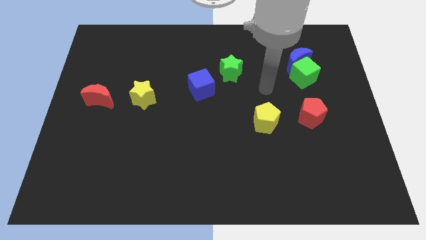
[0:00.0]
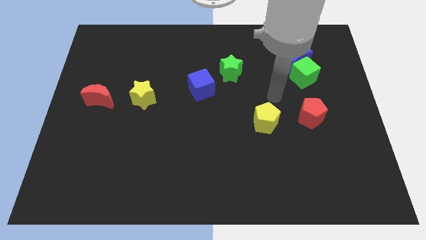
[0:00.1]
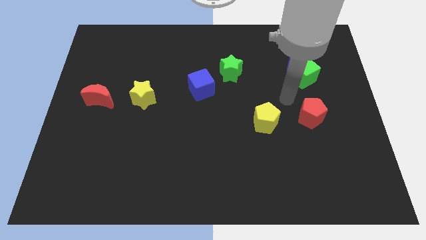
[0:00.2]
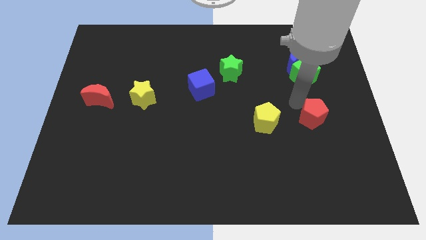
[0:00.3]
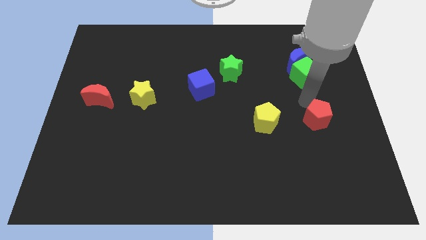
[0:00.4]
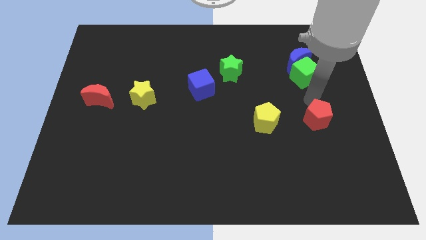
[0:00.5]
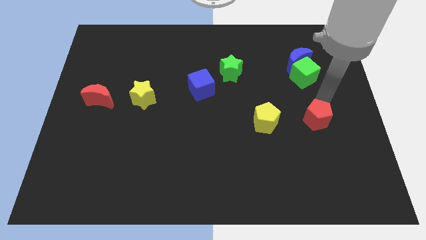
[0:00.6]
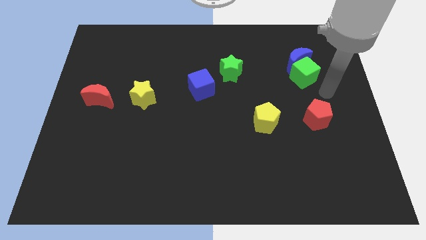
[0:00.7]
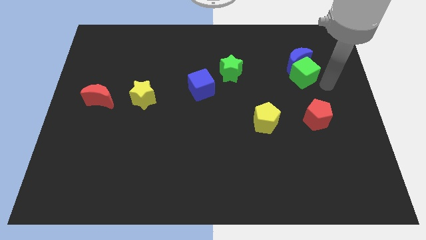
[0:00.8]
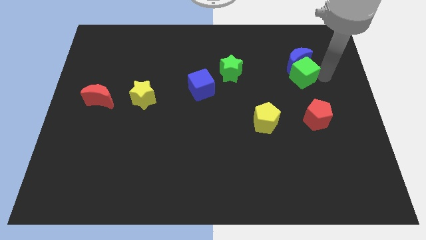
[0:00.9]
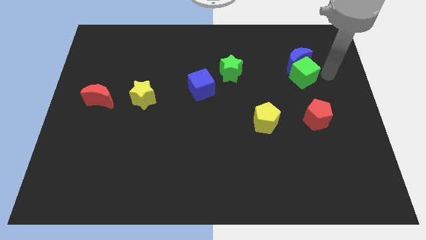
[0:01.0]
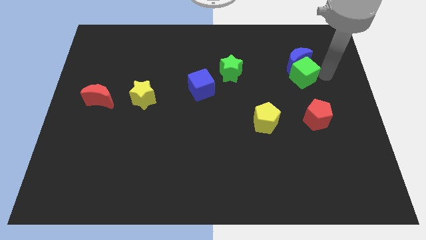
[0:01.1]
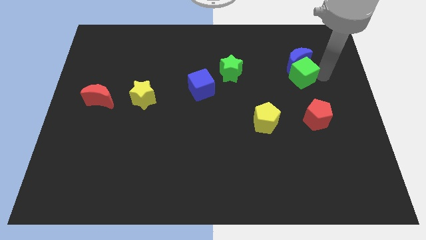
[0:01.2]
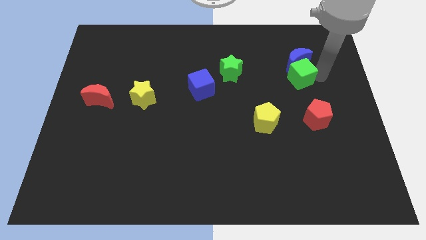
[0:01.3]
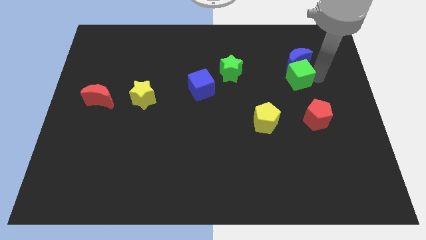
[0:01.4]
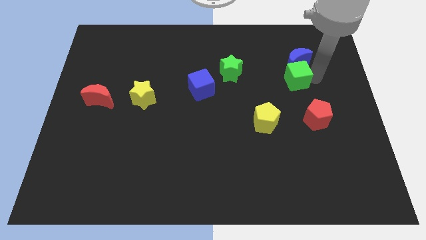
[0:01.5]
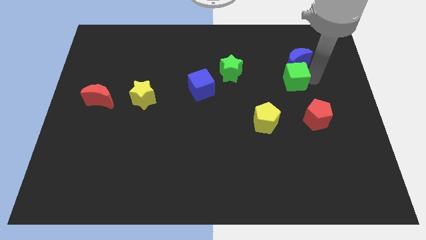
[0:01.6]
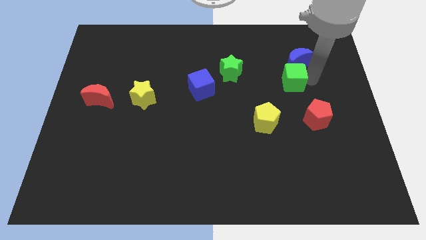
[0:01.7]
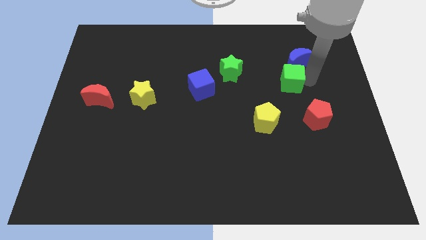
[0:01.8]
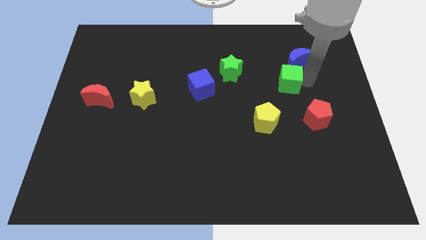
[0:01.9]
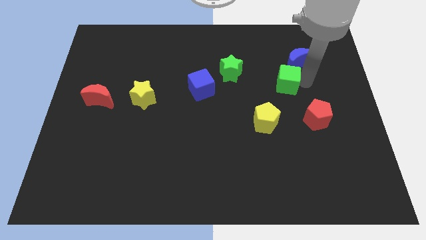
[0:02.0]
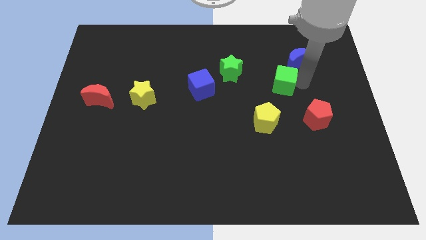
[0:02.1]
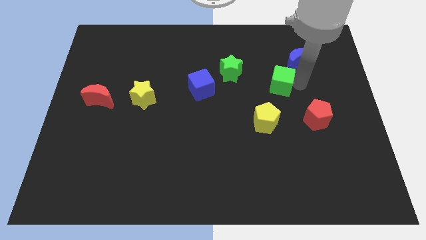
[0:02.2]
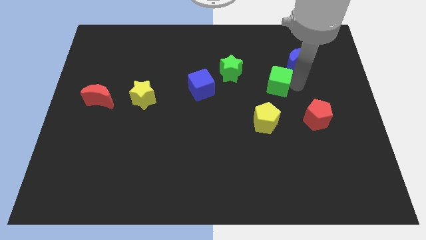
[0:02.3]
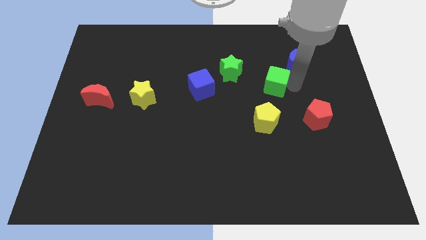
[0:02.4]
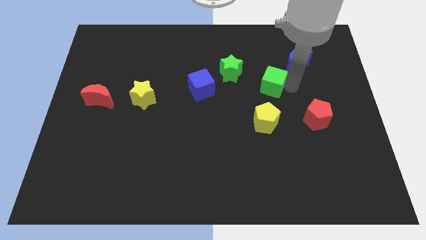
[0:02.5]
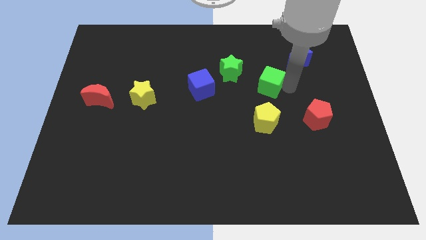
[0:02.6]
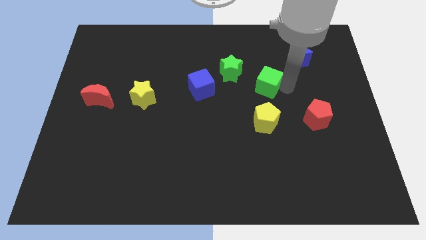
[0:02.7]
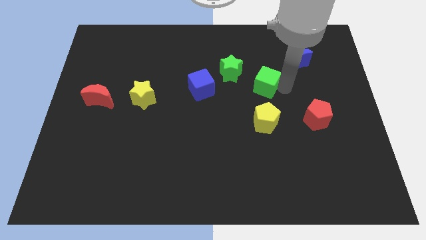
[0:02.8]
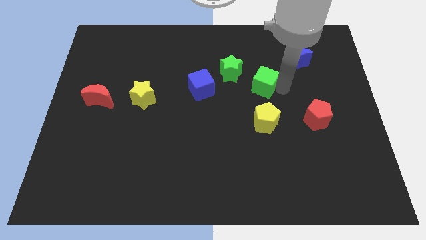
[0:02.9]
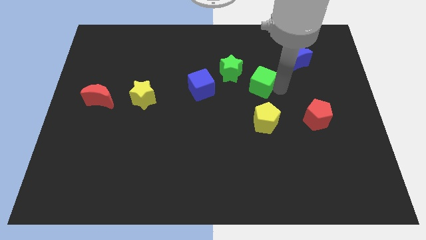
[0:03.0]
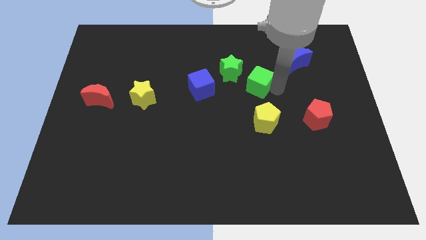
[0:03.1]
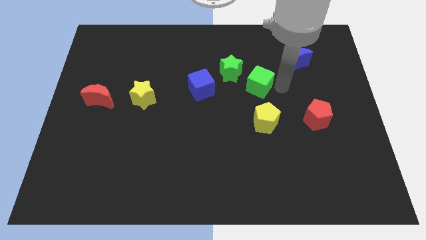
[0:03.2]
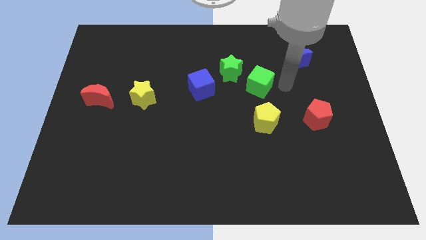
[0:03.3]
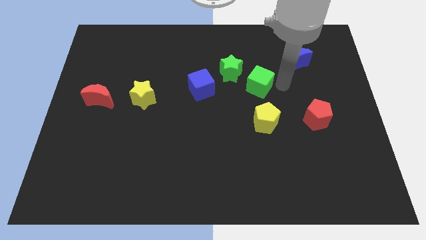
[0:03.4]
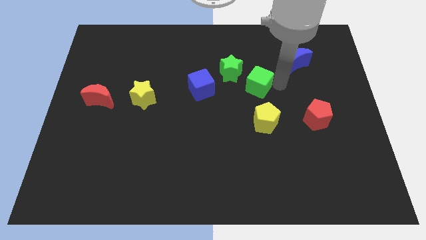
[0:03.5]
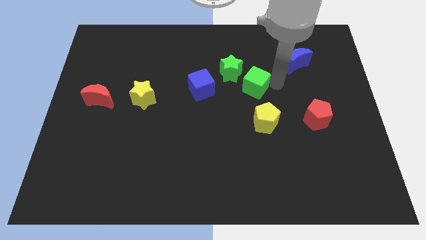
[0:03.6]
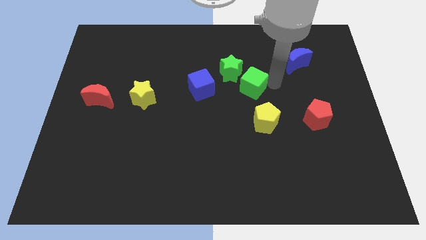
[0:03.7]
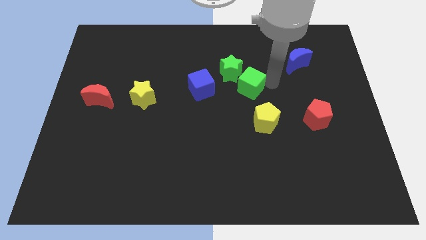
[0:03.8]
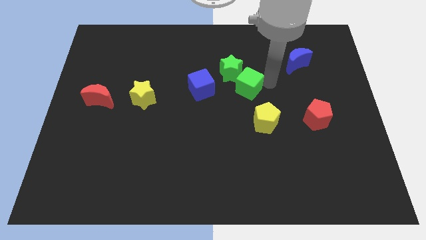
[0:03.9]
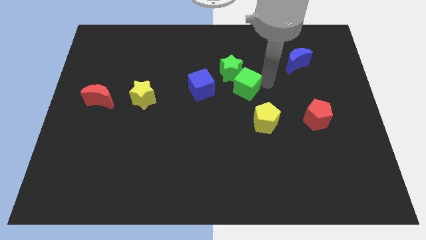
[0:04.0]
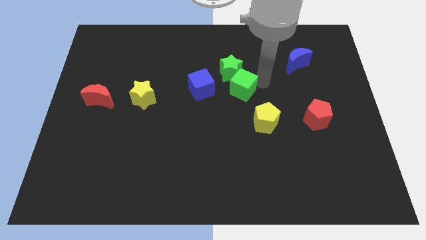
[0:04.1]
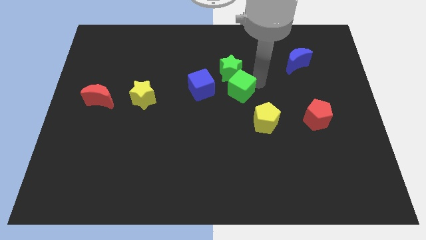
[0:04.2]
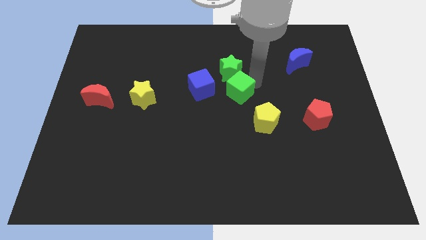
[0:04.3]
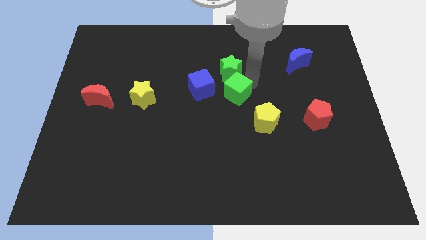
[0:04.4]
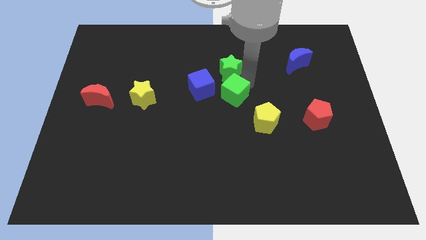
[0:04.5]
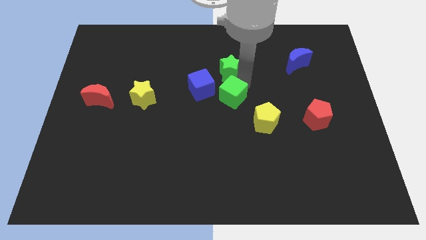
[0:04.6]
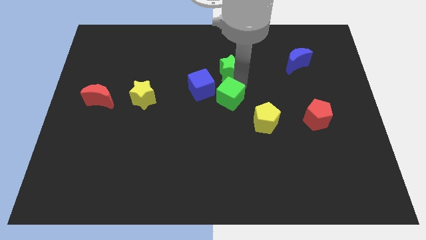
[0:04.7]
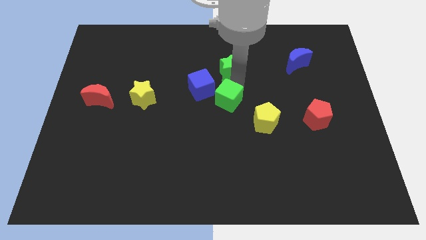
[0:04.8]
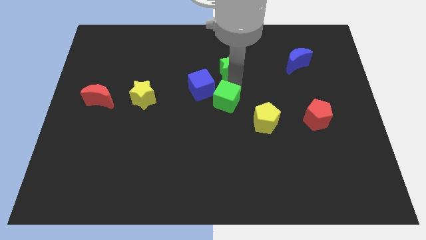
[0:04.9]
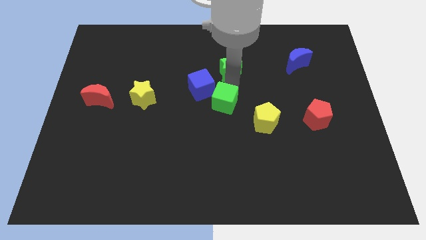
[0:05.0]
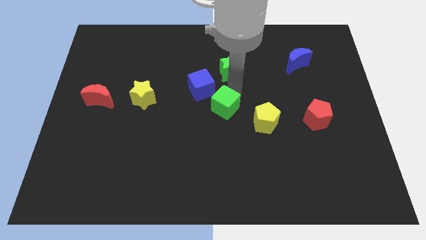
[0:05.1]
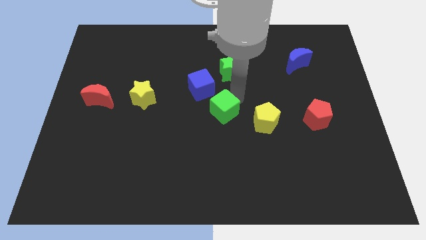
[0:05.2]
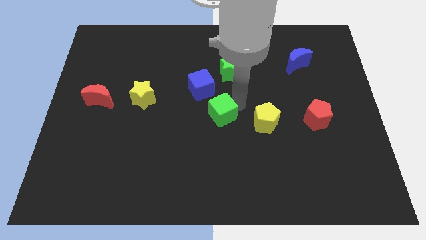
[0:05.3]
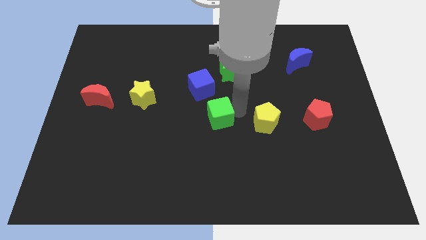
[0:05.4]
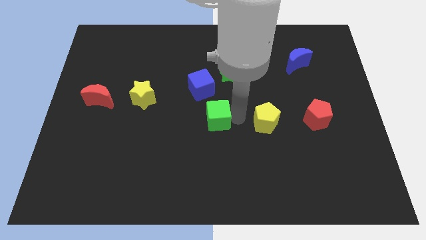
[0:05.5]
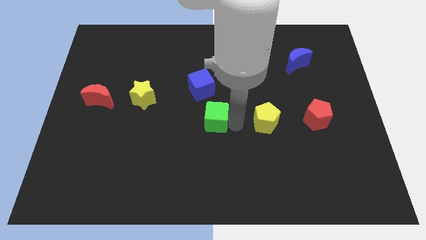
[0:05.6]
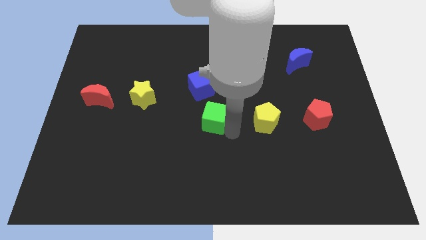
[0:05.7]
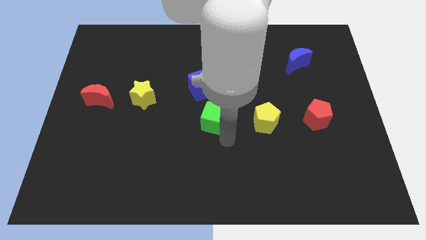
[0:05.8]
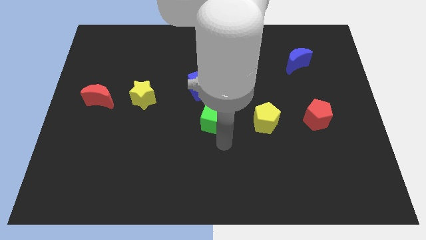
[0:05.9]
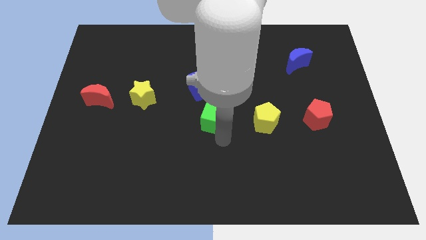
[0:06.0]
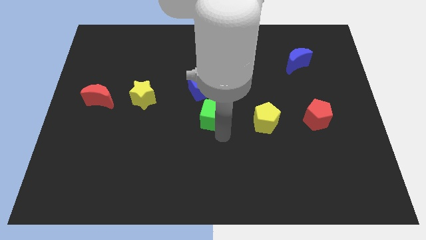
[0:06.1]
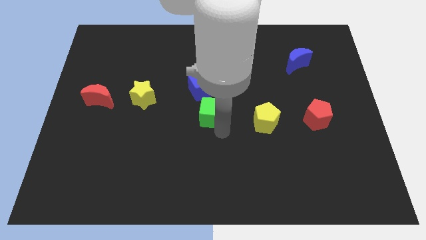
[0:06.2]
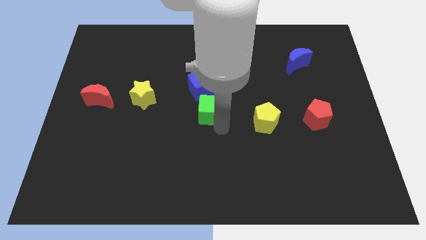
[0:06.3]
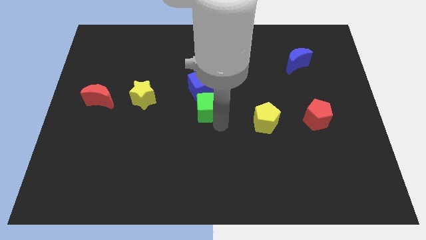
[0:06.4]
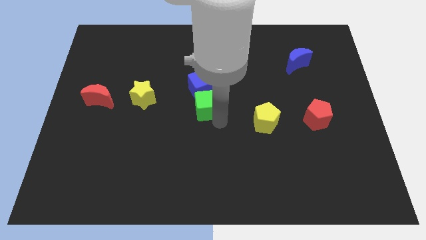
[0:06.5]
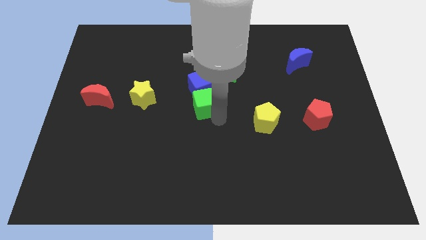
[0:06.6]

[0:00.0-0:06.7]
slide the green cube close to the blue cube

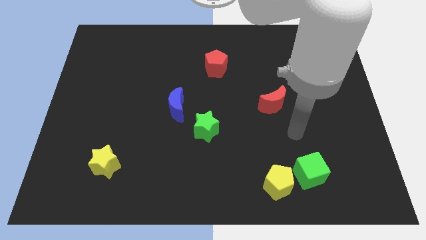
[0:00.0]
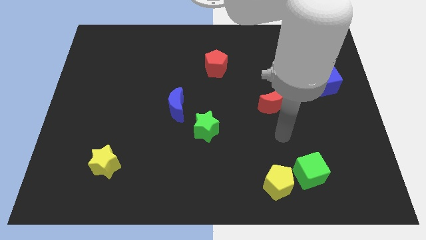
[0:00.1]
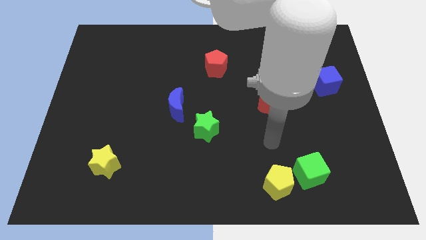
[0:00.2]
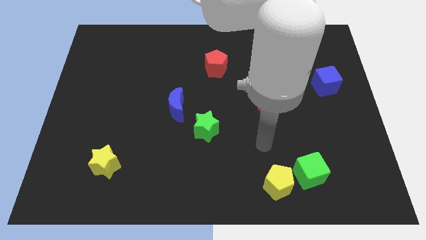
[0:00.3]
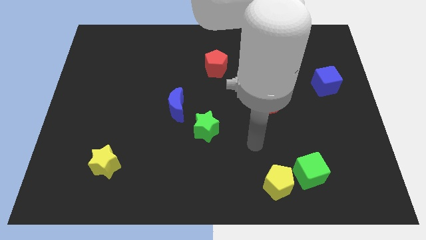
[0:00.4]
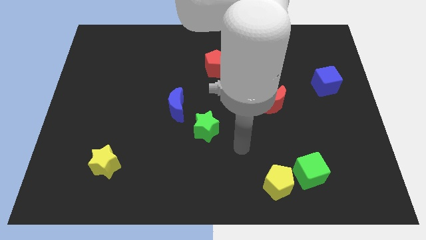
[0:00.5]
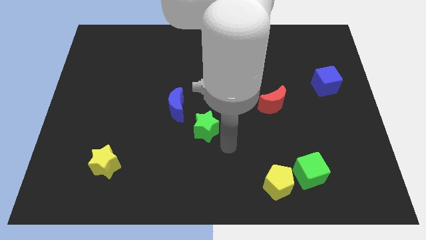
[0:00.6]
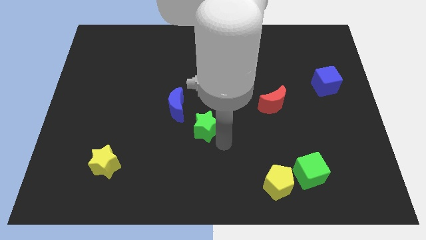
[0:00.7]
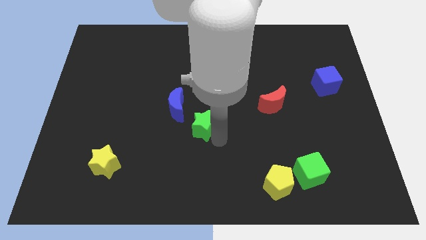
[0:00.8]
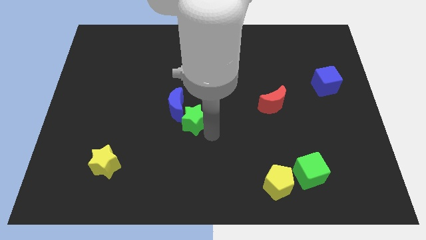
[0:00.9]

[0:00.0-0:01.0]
put the green star towards the blue moon
